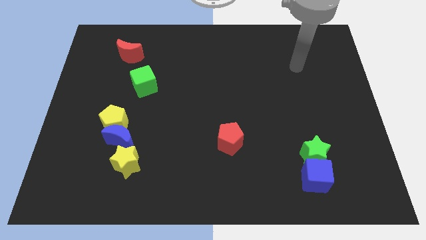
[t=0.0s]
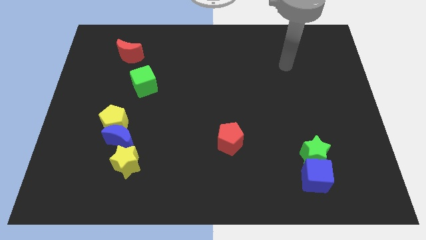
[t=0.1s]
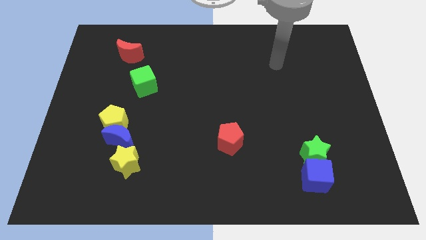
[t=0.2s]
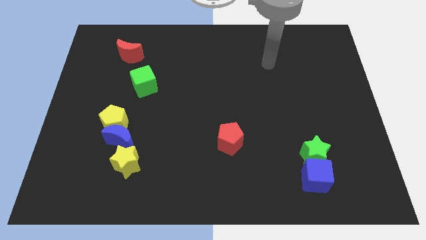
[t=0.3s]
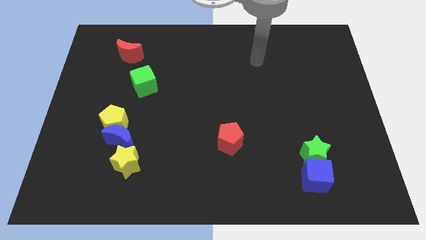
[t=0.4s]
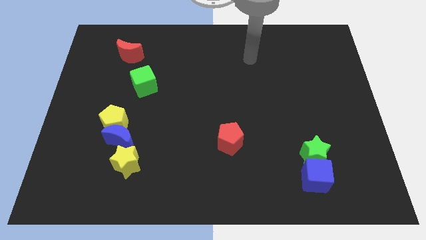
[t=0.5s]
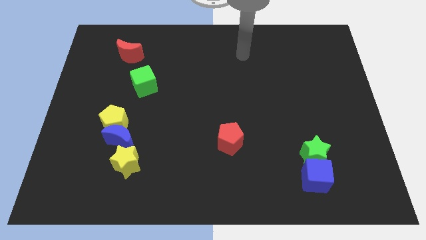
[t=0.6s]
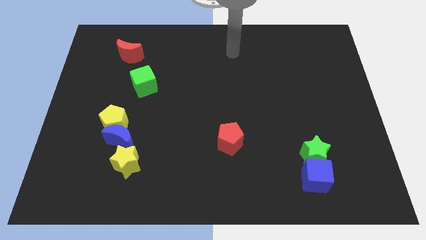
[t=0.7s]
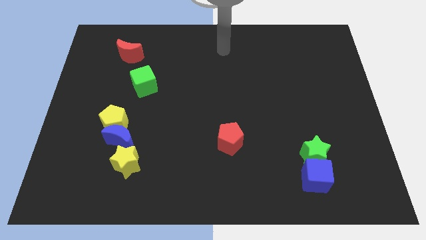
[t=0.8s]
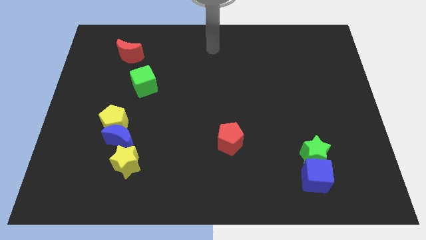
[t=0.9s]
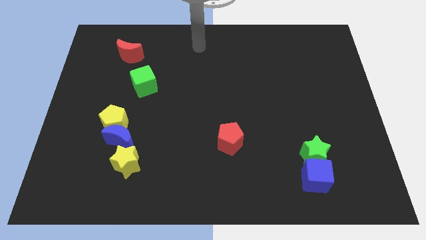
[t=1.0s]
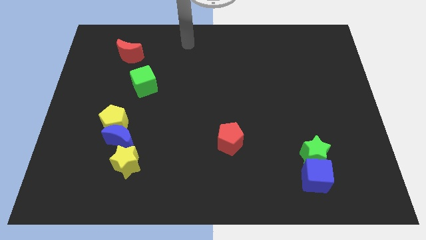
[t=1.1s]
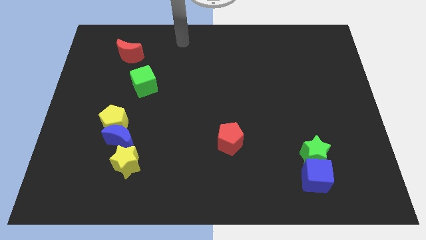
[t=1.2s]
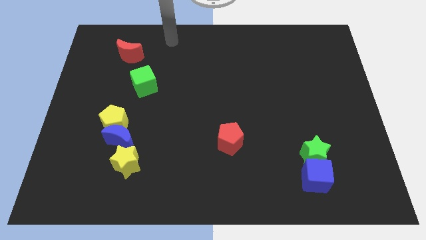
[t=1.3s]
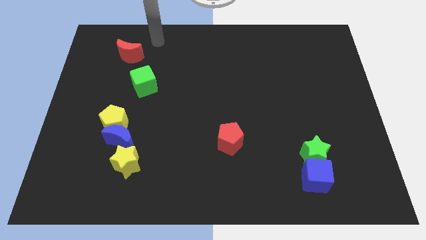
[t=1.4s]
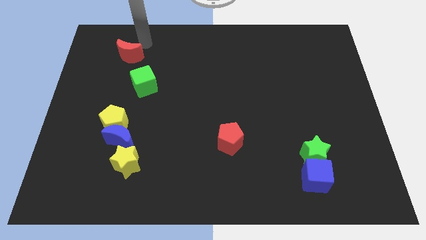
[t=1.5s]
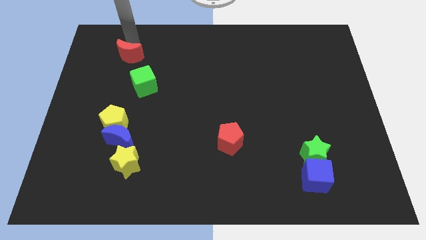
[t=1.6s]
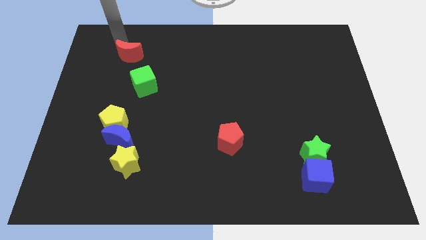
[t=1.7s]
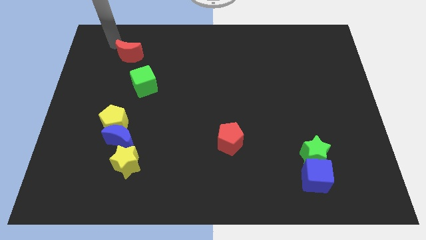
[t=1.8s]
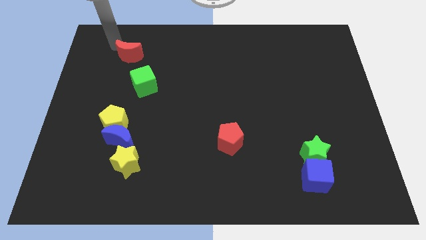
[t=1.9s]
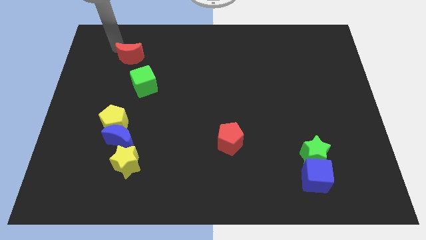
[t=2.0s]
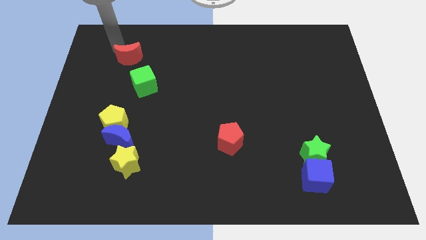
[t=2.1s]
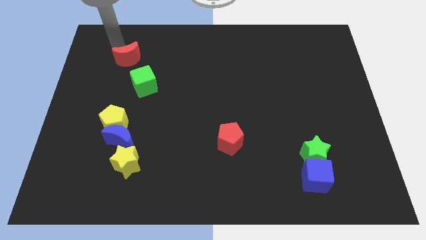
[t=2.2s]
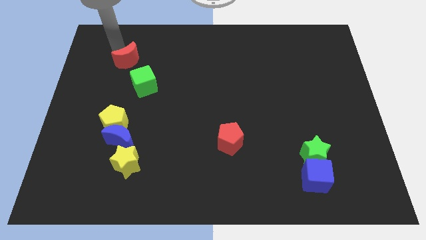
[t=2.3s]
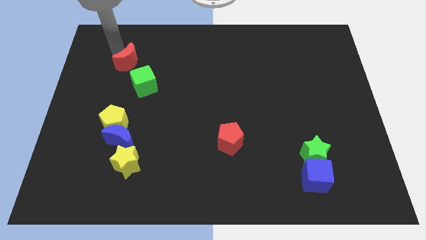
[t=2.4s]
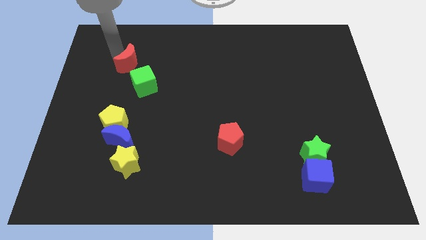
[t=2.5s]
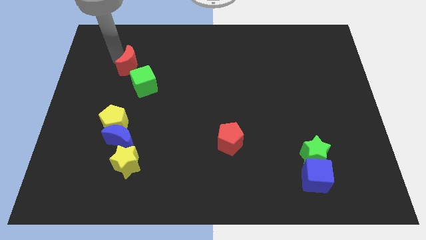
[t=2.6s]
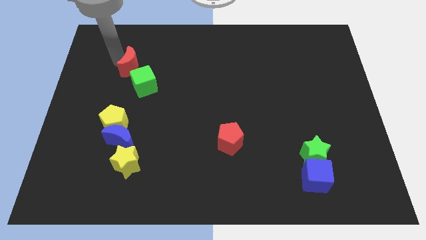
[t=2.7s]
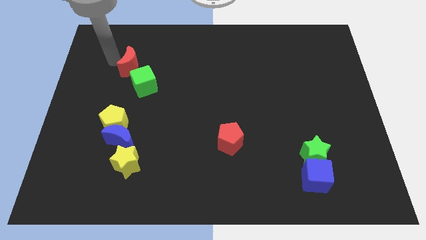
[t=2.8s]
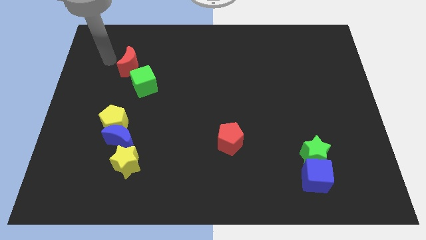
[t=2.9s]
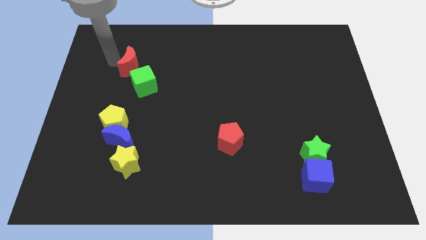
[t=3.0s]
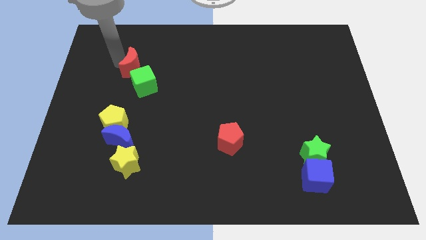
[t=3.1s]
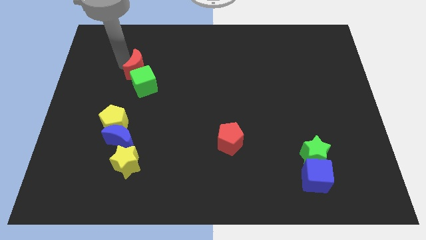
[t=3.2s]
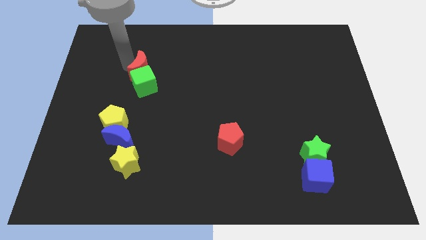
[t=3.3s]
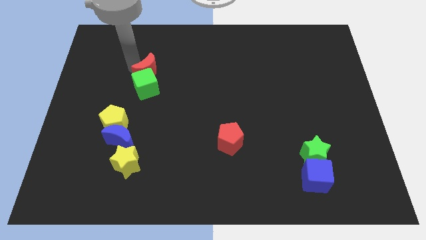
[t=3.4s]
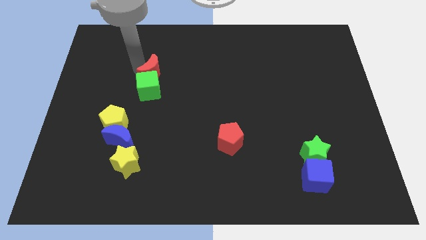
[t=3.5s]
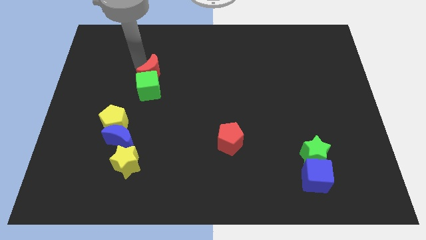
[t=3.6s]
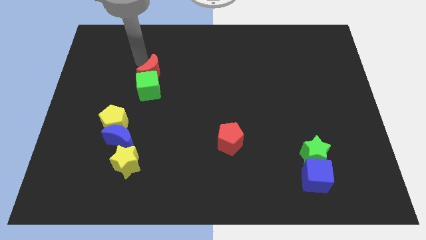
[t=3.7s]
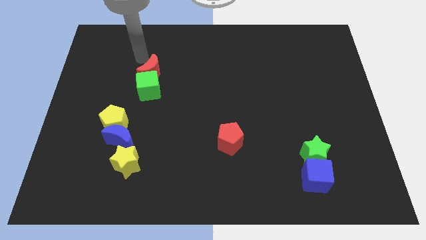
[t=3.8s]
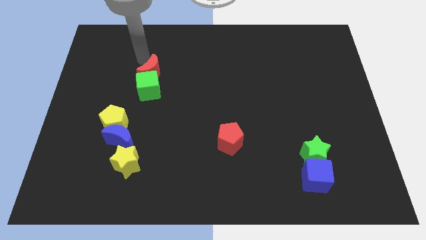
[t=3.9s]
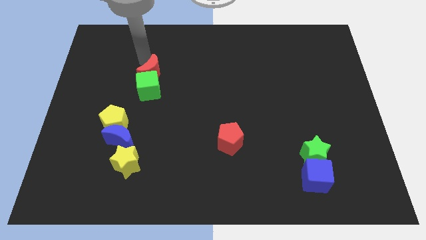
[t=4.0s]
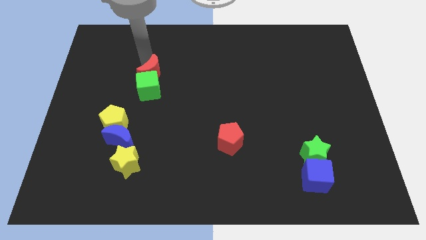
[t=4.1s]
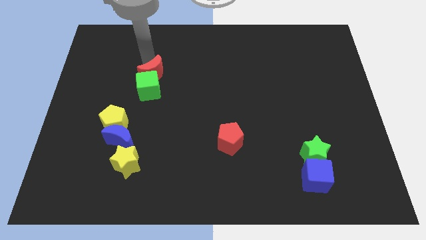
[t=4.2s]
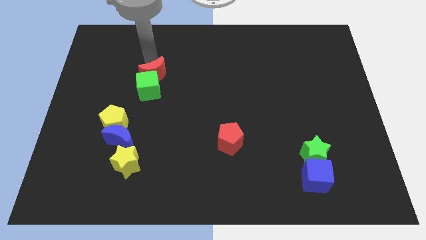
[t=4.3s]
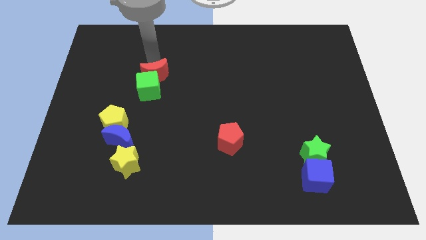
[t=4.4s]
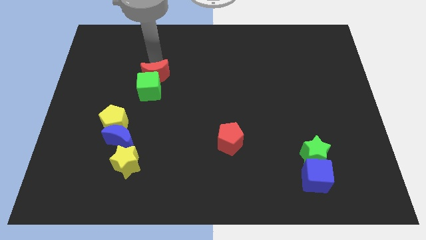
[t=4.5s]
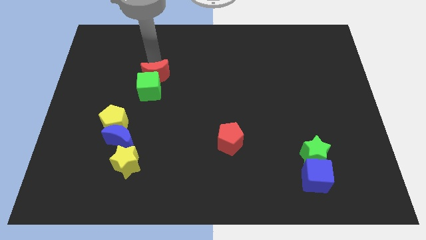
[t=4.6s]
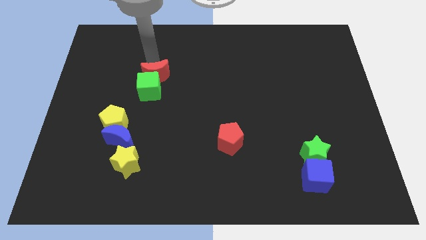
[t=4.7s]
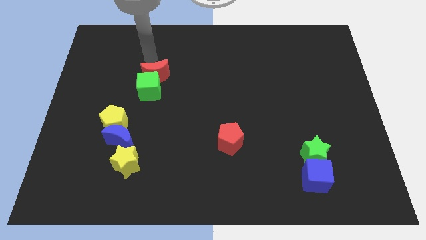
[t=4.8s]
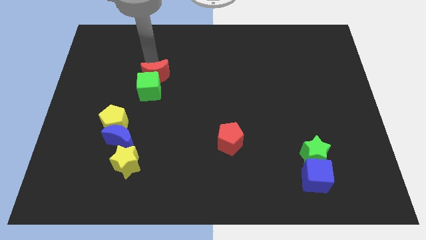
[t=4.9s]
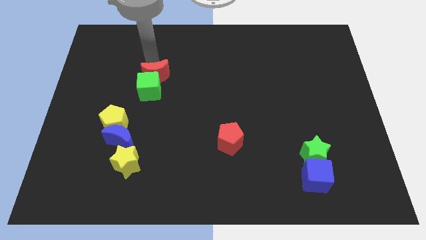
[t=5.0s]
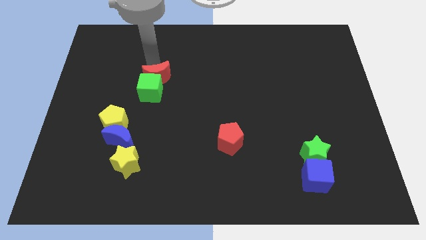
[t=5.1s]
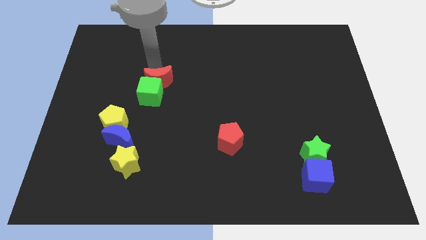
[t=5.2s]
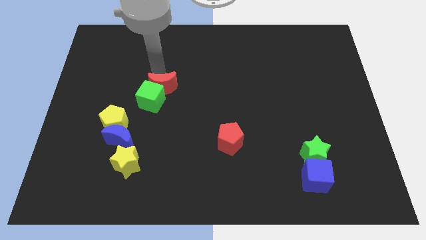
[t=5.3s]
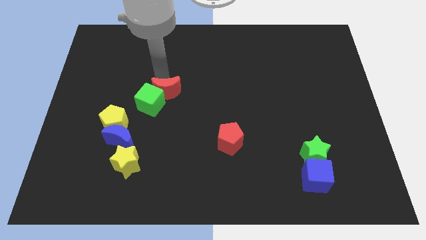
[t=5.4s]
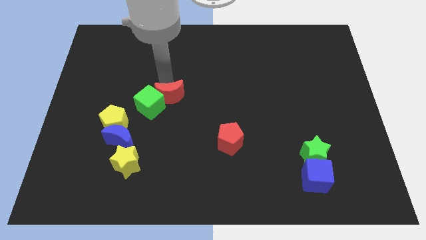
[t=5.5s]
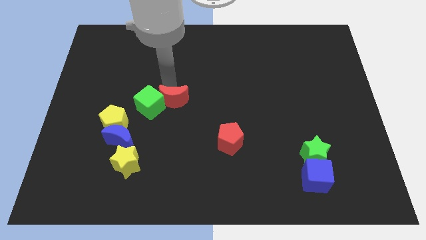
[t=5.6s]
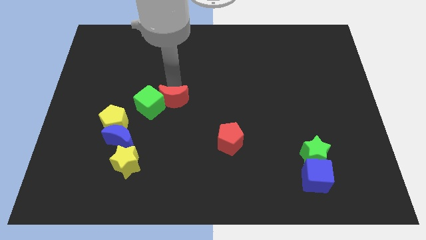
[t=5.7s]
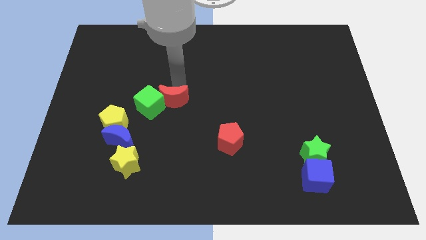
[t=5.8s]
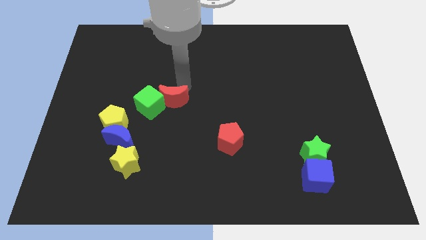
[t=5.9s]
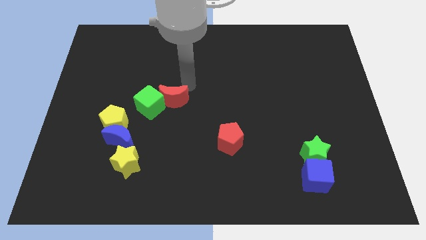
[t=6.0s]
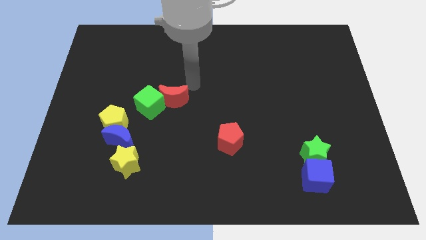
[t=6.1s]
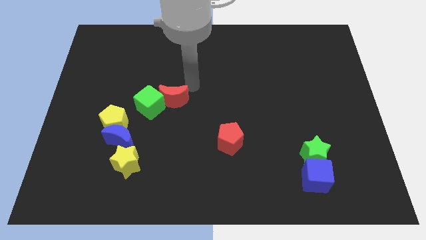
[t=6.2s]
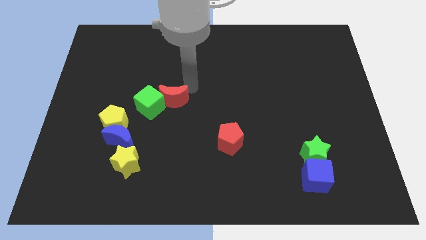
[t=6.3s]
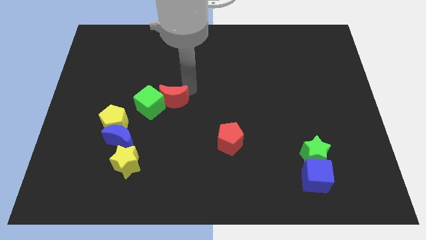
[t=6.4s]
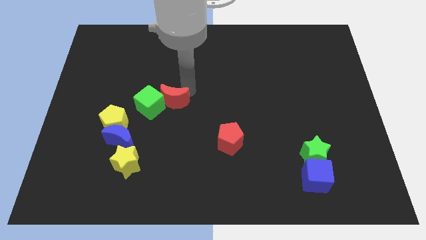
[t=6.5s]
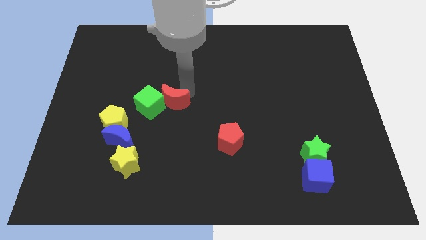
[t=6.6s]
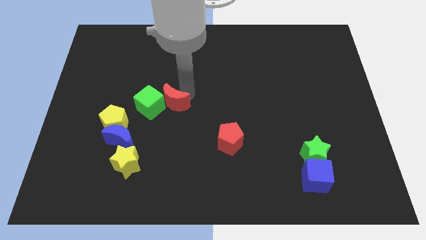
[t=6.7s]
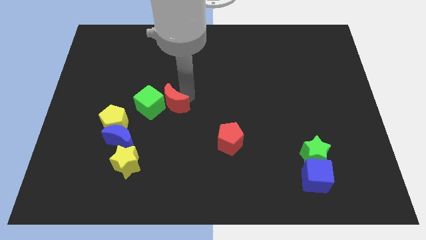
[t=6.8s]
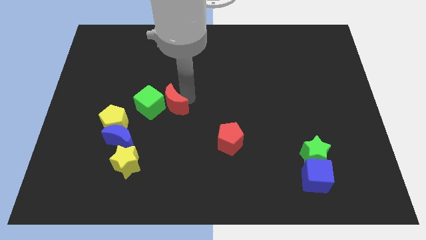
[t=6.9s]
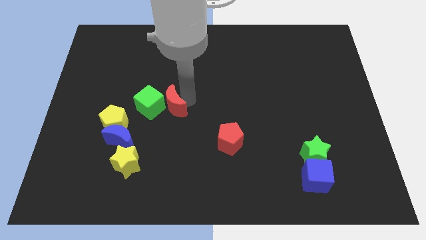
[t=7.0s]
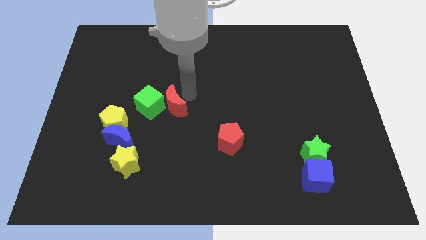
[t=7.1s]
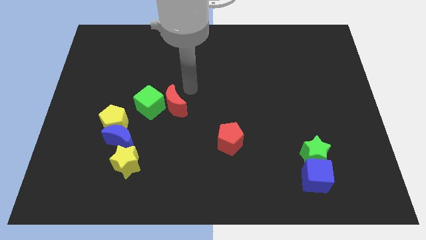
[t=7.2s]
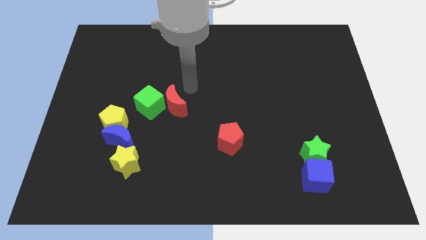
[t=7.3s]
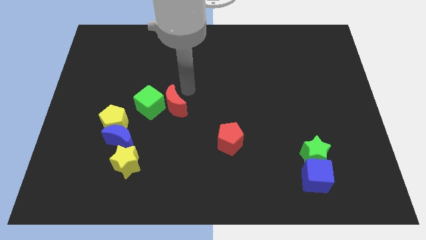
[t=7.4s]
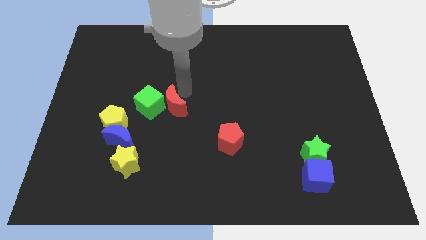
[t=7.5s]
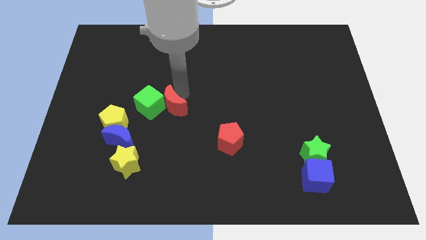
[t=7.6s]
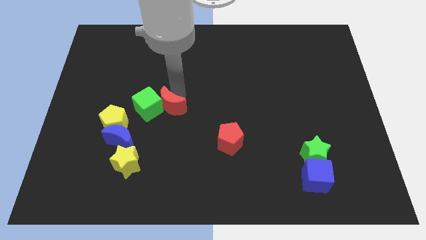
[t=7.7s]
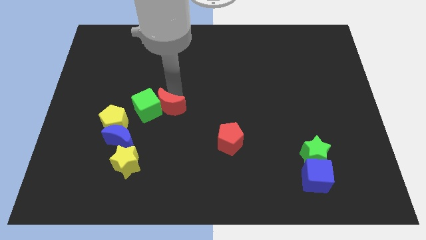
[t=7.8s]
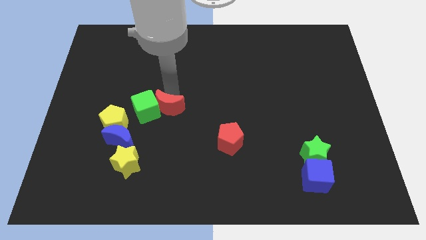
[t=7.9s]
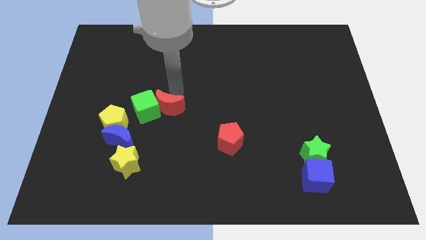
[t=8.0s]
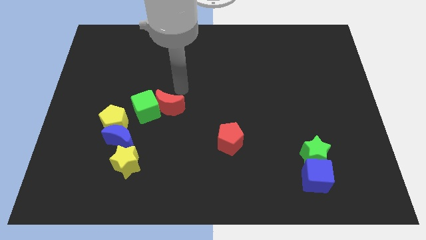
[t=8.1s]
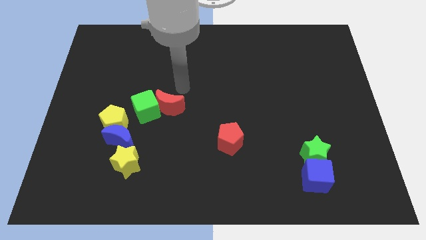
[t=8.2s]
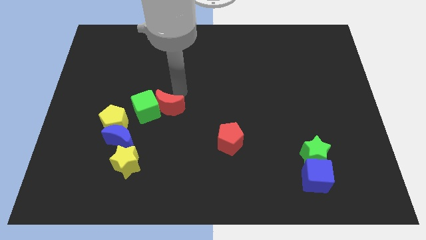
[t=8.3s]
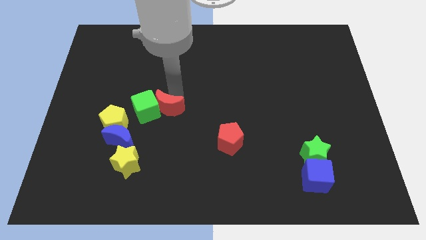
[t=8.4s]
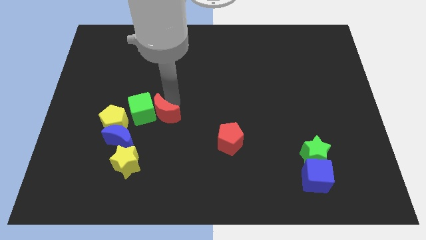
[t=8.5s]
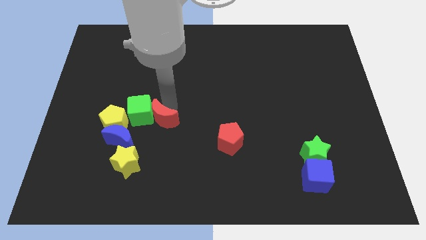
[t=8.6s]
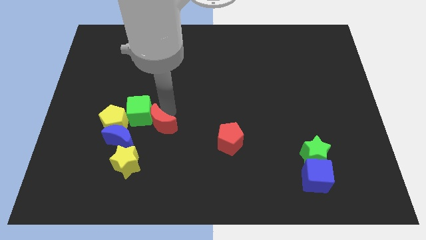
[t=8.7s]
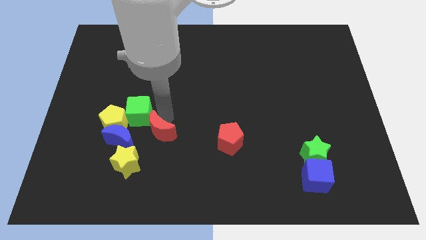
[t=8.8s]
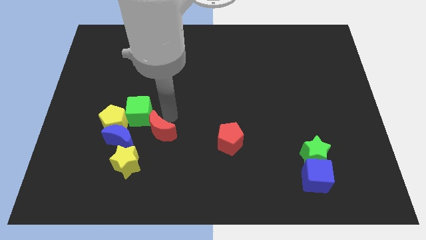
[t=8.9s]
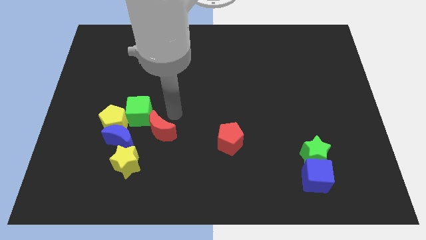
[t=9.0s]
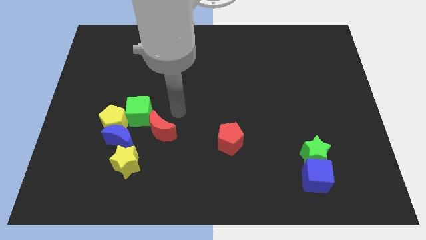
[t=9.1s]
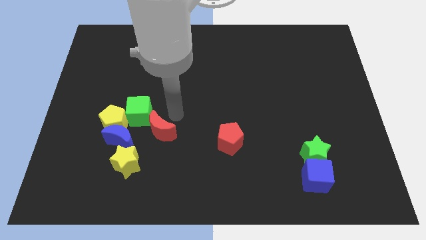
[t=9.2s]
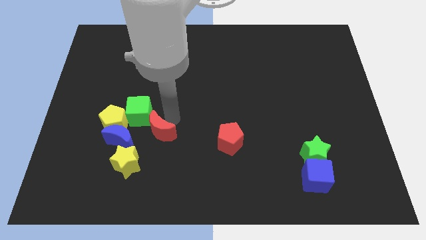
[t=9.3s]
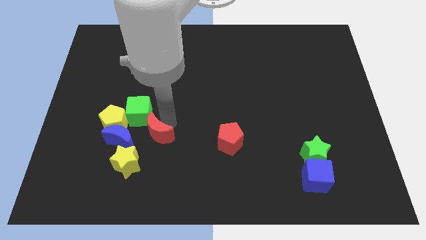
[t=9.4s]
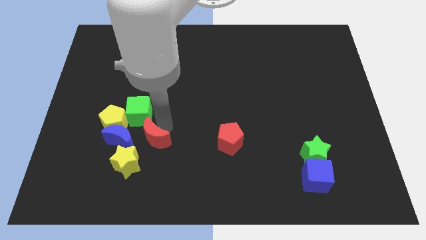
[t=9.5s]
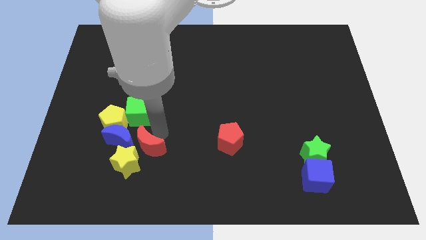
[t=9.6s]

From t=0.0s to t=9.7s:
slide the red moon next to the yellow star
